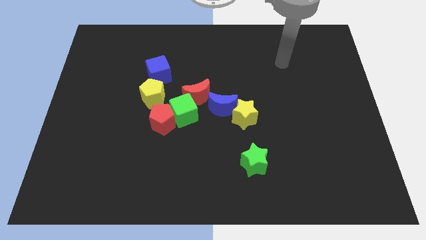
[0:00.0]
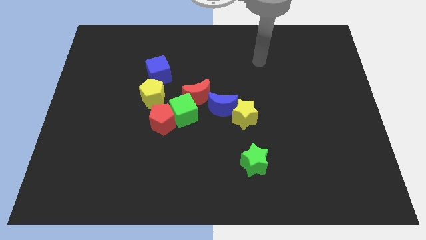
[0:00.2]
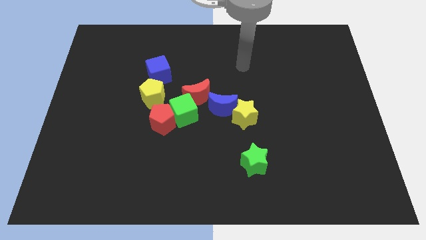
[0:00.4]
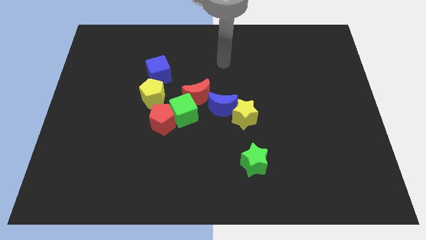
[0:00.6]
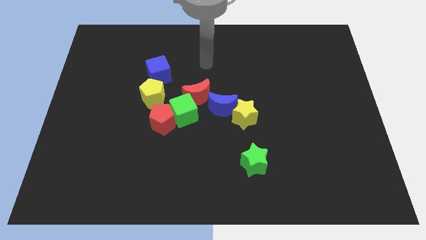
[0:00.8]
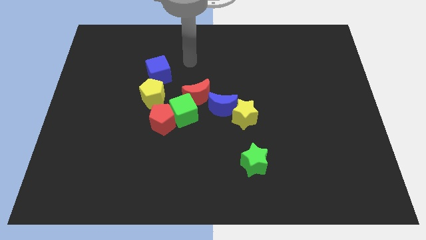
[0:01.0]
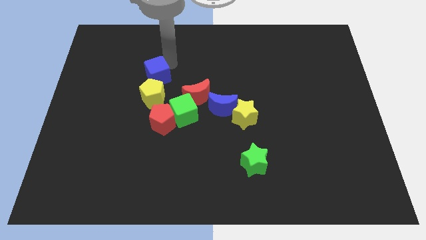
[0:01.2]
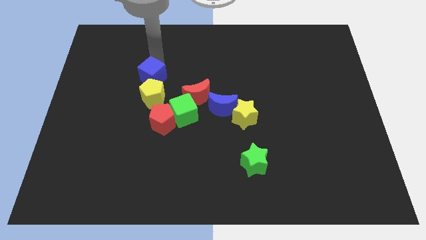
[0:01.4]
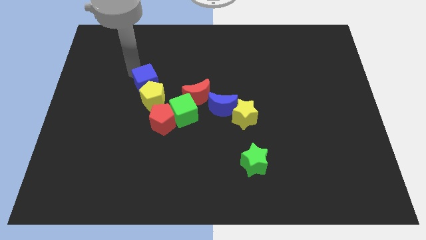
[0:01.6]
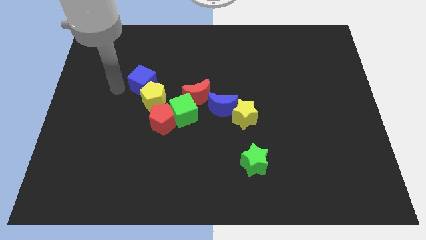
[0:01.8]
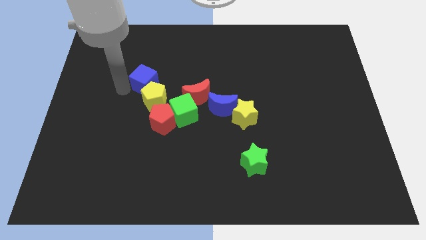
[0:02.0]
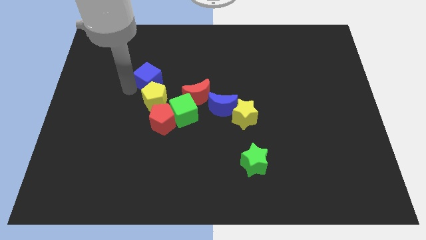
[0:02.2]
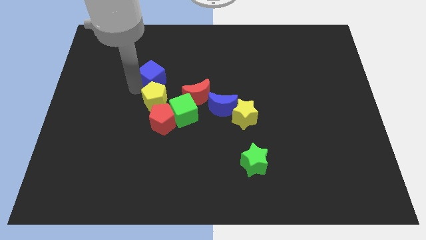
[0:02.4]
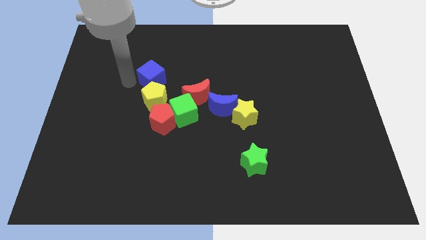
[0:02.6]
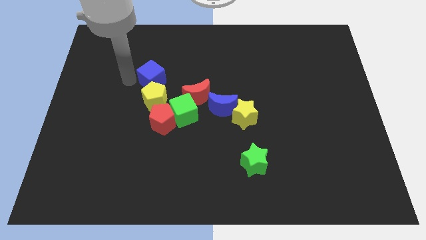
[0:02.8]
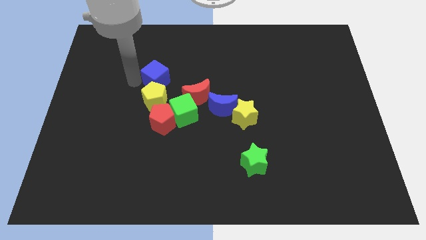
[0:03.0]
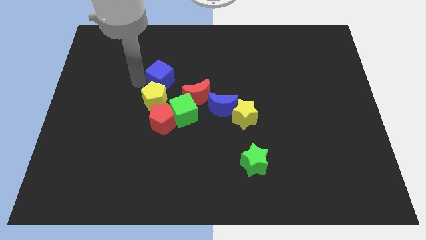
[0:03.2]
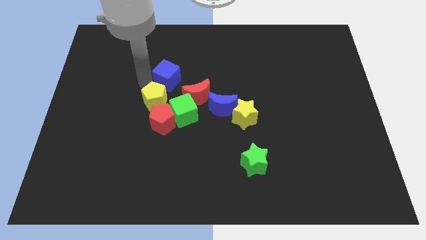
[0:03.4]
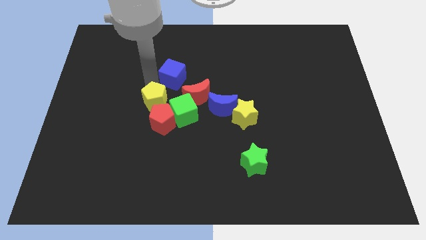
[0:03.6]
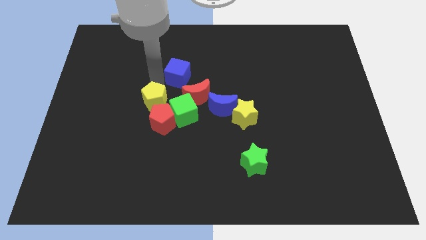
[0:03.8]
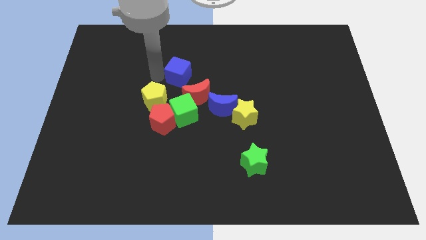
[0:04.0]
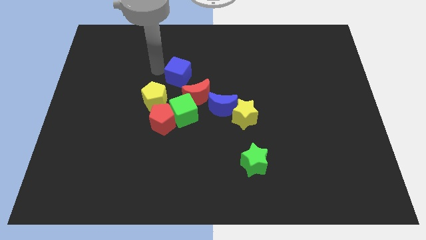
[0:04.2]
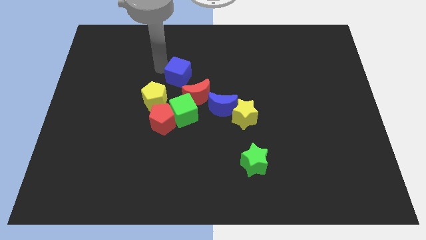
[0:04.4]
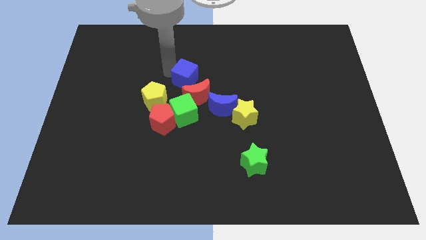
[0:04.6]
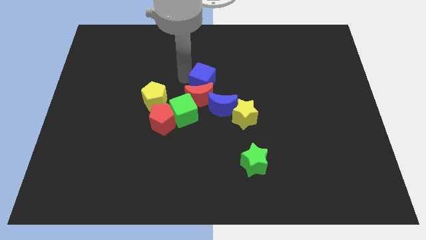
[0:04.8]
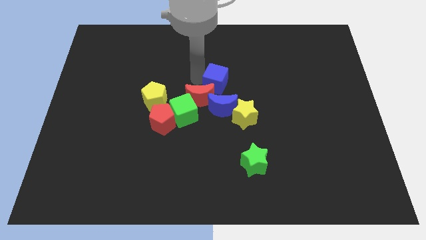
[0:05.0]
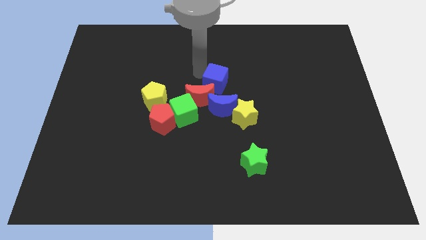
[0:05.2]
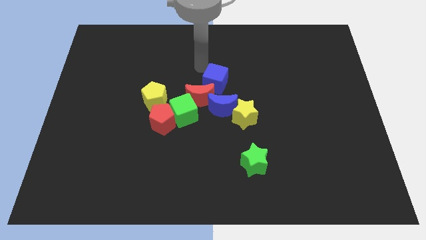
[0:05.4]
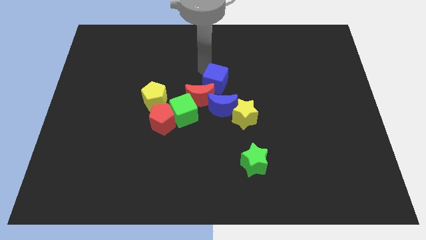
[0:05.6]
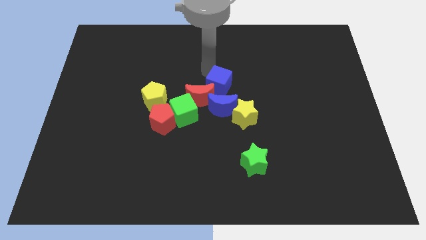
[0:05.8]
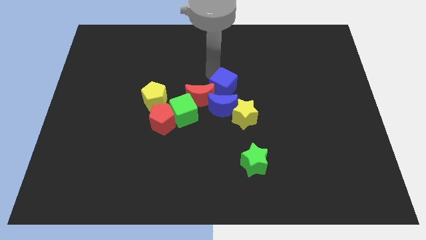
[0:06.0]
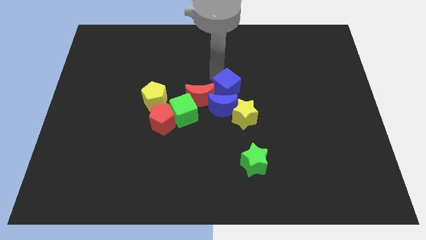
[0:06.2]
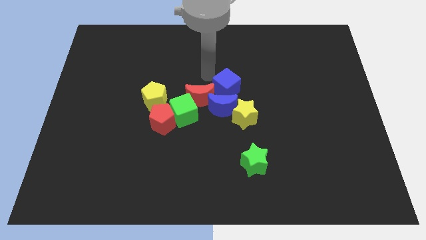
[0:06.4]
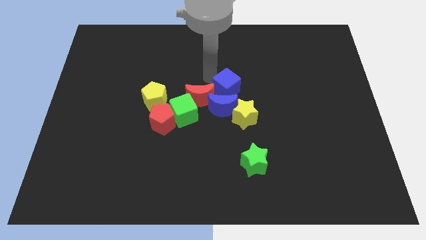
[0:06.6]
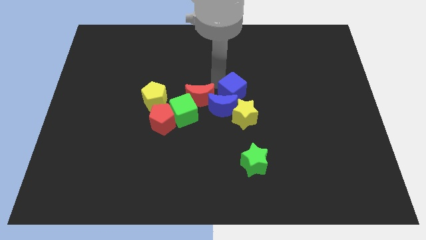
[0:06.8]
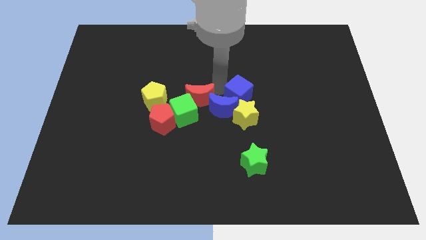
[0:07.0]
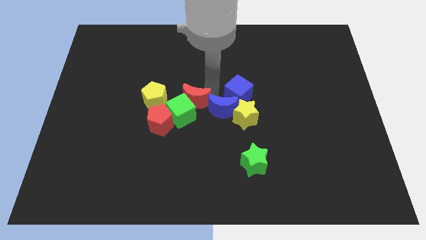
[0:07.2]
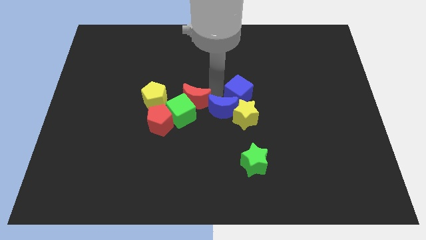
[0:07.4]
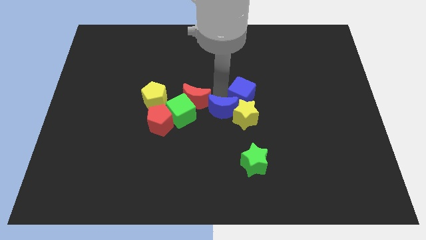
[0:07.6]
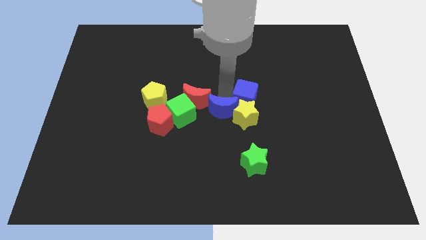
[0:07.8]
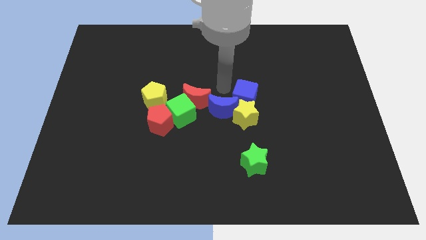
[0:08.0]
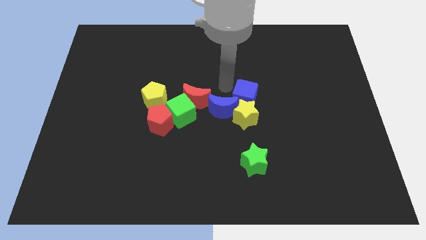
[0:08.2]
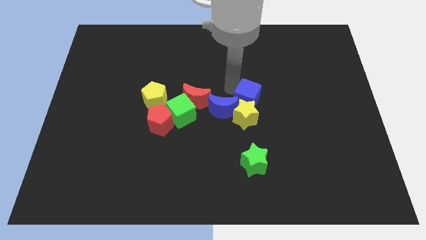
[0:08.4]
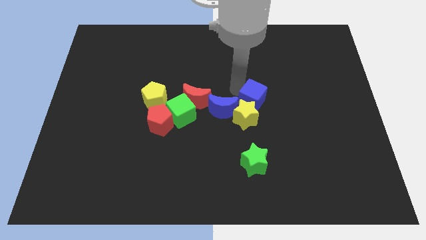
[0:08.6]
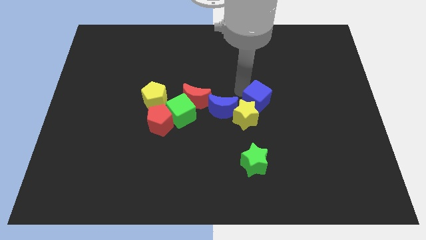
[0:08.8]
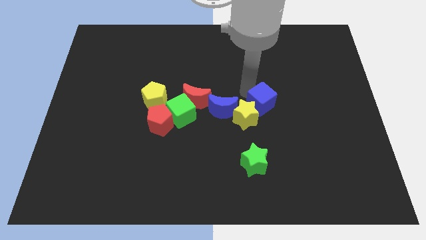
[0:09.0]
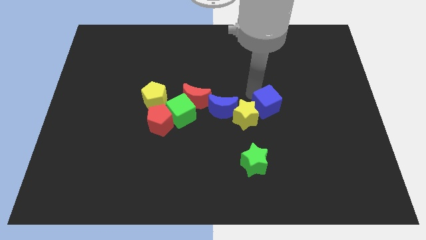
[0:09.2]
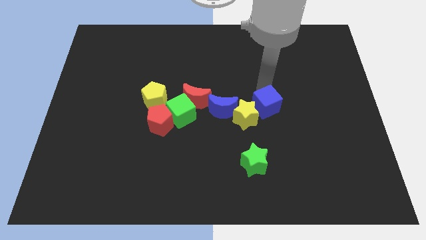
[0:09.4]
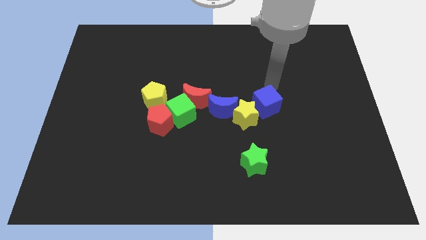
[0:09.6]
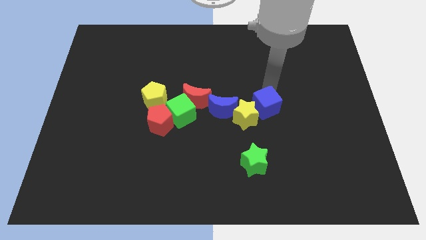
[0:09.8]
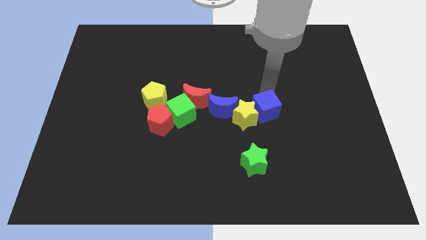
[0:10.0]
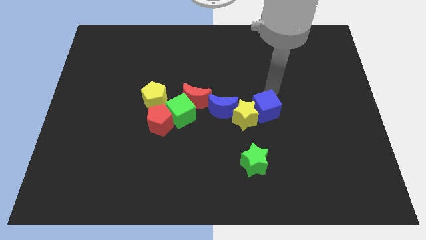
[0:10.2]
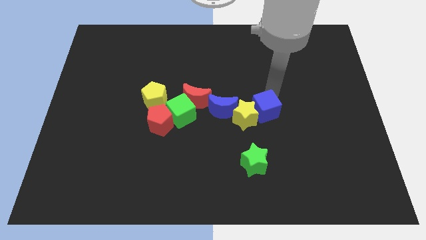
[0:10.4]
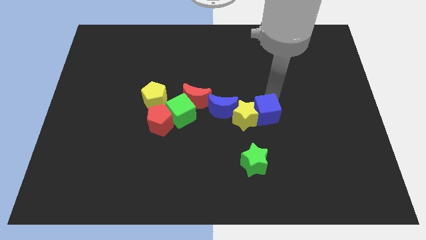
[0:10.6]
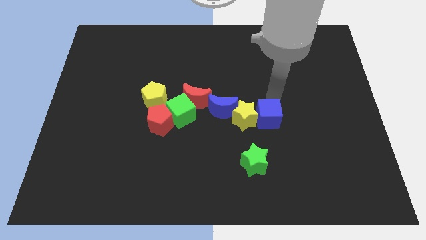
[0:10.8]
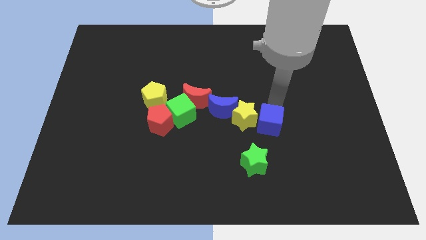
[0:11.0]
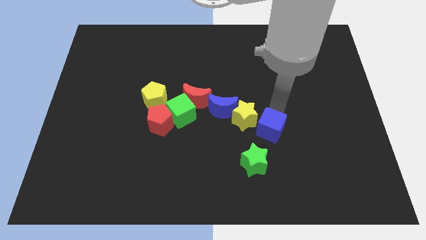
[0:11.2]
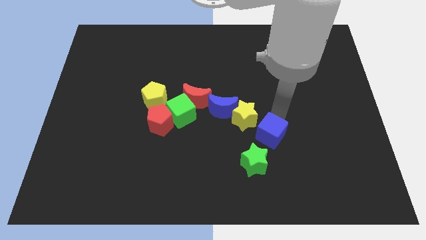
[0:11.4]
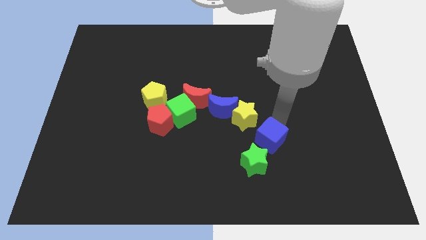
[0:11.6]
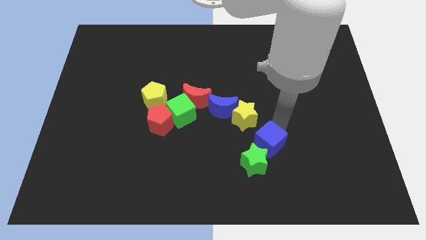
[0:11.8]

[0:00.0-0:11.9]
slide the blue cube towards the green star

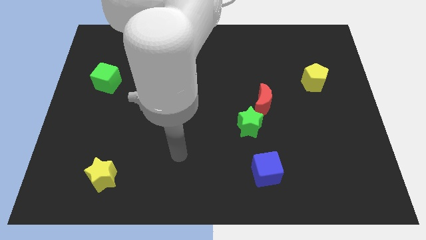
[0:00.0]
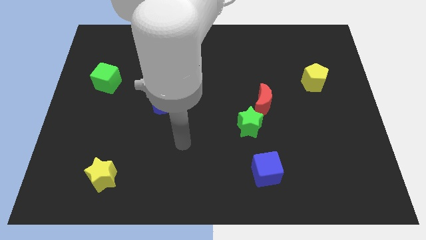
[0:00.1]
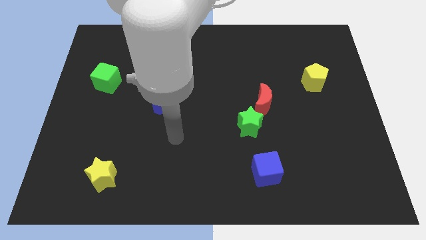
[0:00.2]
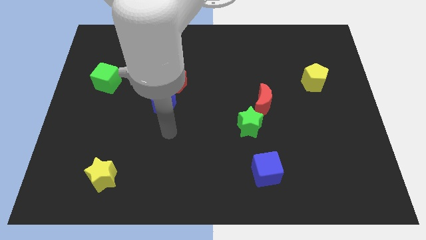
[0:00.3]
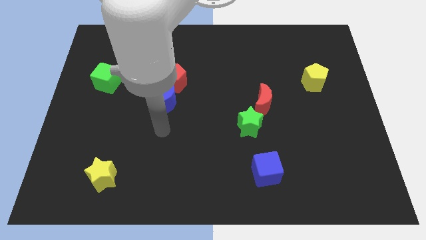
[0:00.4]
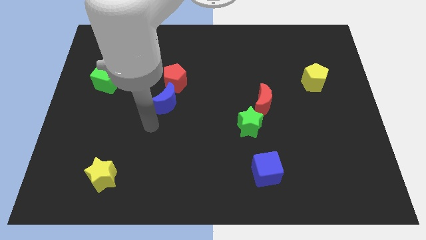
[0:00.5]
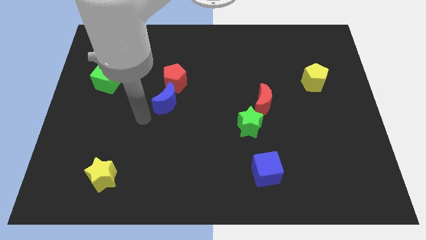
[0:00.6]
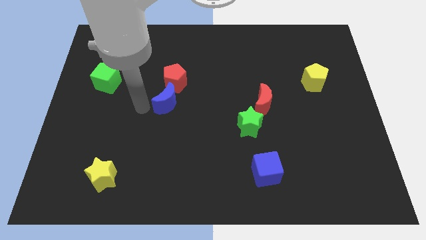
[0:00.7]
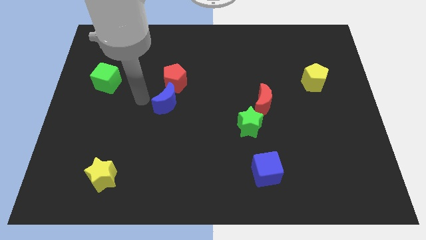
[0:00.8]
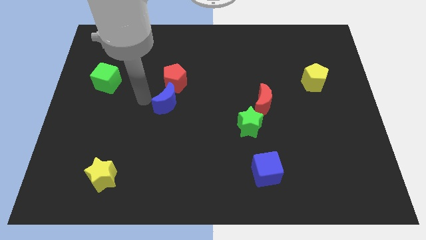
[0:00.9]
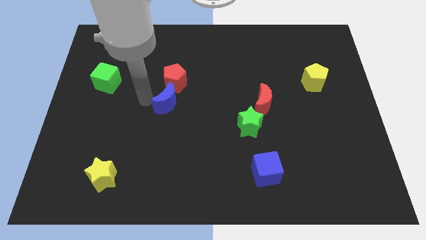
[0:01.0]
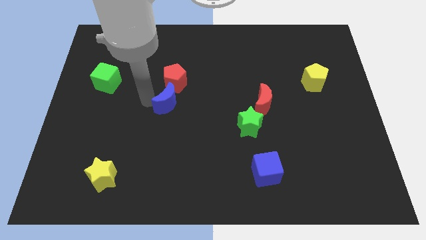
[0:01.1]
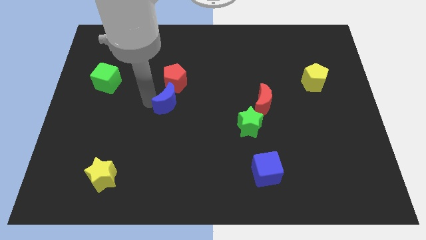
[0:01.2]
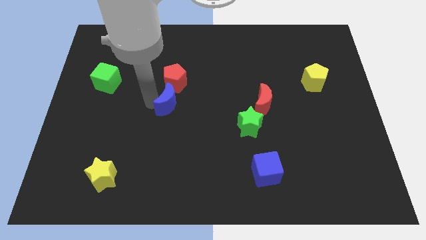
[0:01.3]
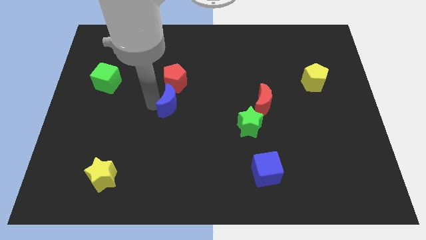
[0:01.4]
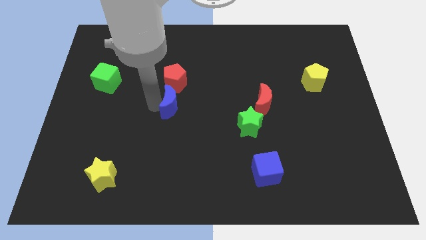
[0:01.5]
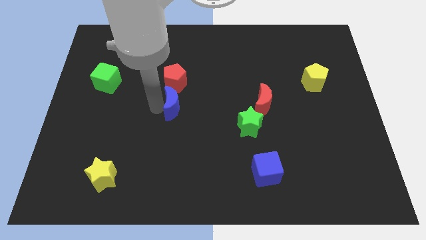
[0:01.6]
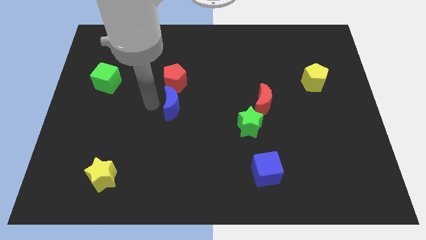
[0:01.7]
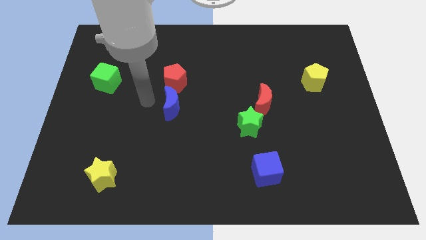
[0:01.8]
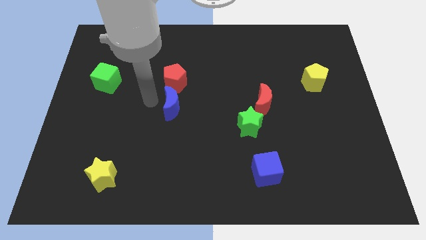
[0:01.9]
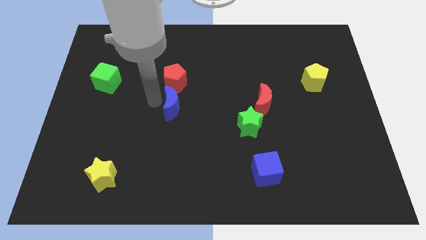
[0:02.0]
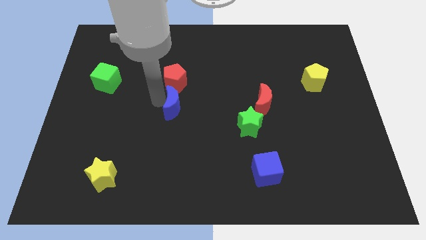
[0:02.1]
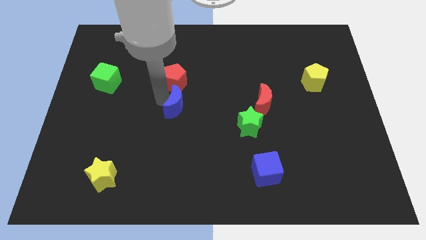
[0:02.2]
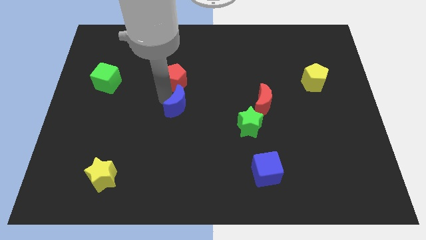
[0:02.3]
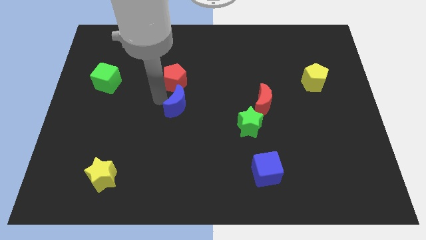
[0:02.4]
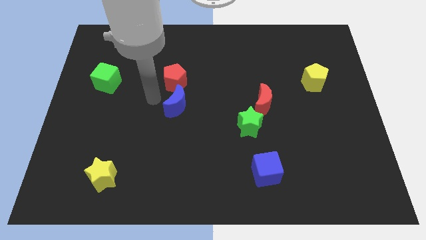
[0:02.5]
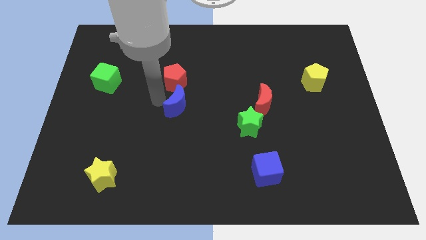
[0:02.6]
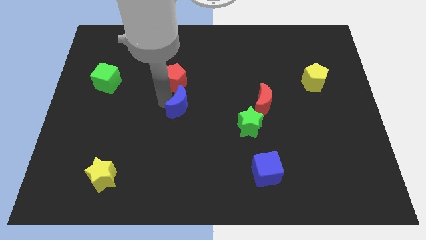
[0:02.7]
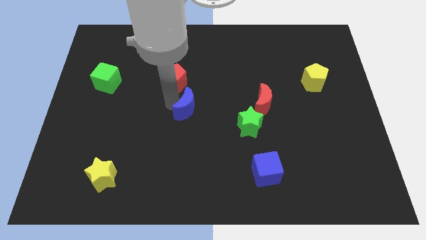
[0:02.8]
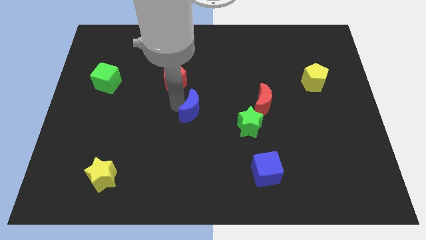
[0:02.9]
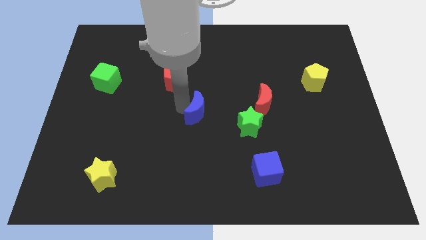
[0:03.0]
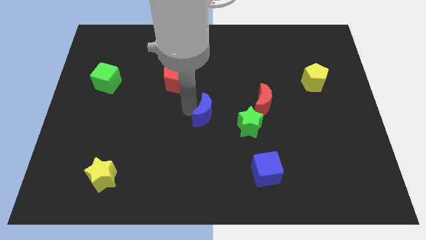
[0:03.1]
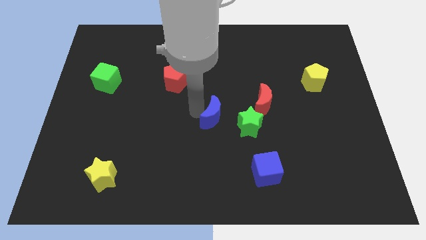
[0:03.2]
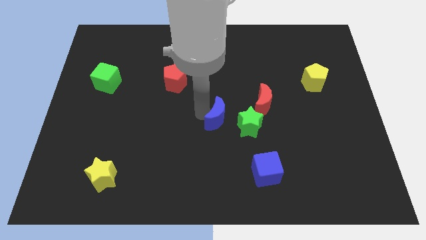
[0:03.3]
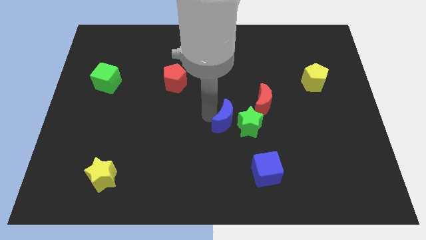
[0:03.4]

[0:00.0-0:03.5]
push the blue moon to the green star
